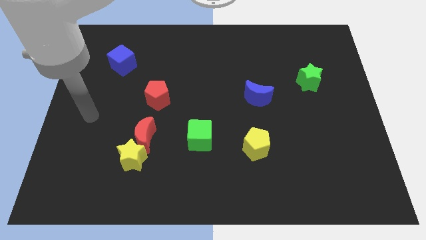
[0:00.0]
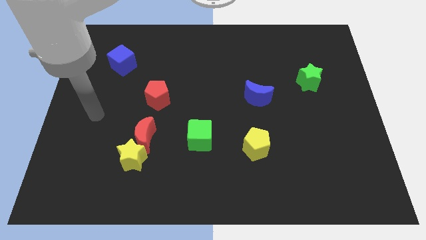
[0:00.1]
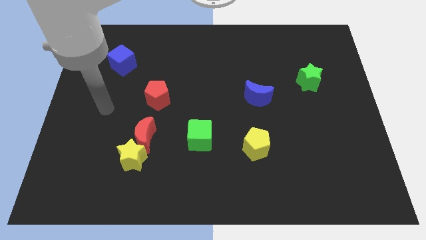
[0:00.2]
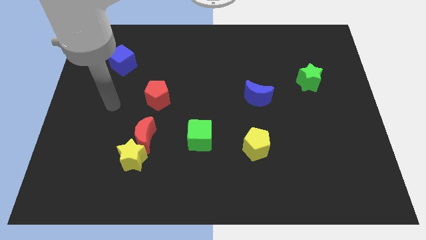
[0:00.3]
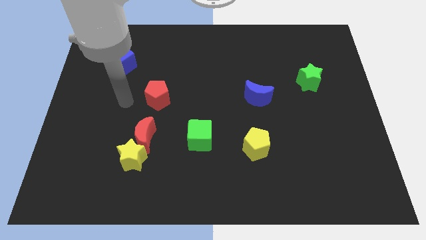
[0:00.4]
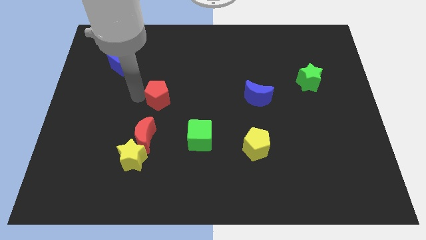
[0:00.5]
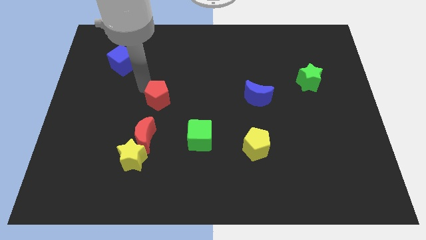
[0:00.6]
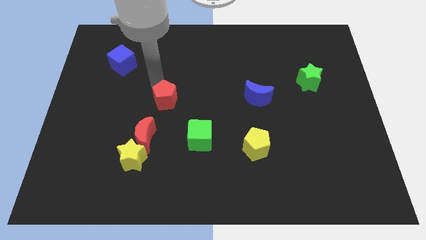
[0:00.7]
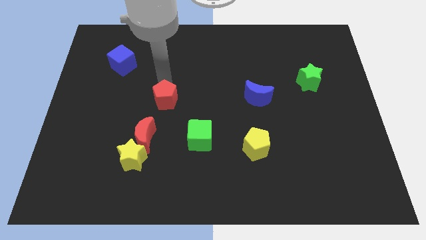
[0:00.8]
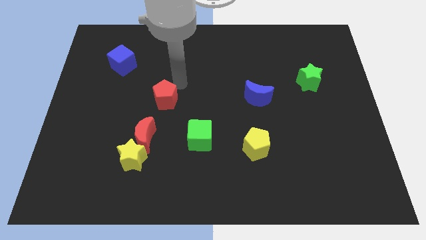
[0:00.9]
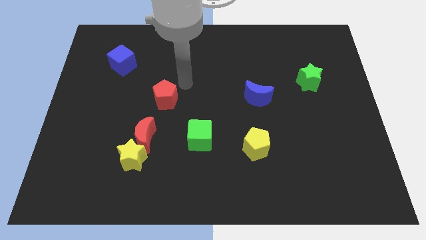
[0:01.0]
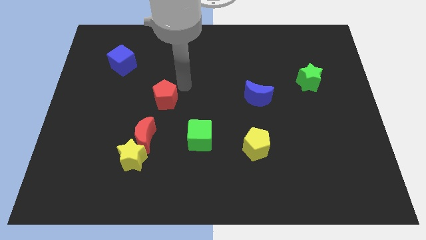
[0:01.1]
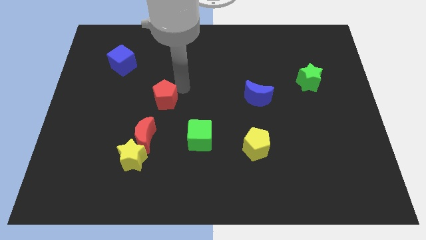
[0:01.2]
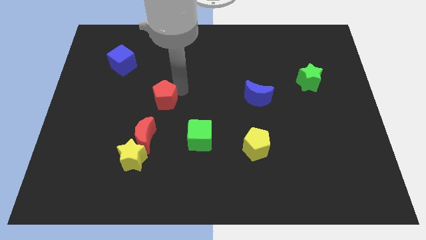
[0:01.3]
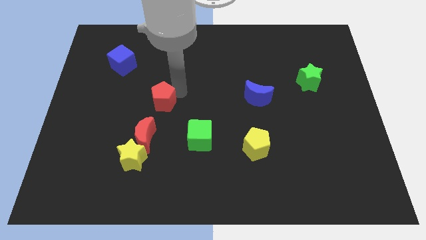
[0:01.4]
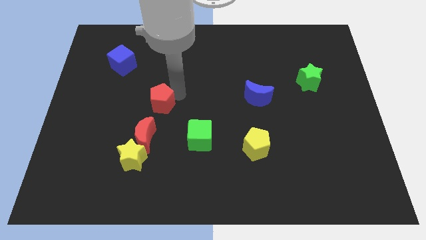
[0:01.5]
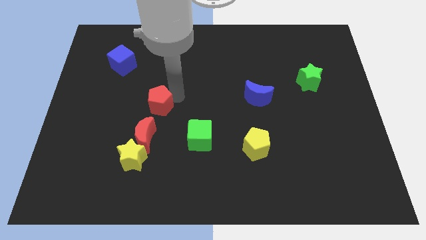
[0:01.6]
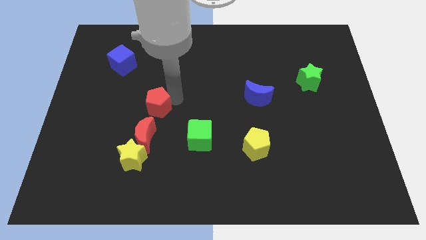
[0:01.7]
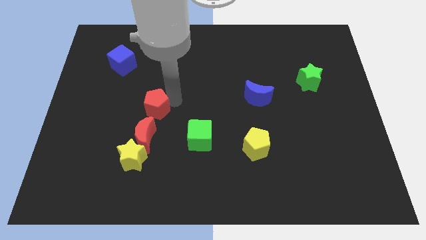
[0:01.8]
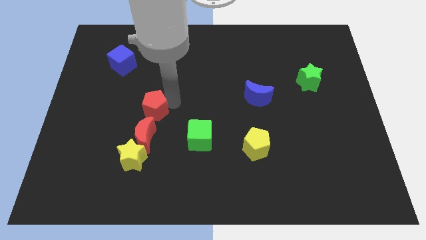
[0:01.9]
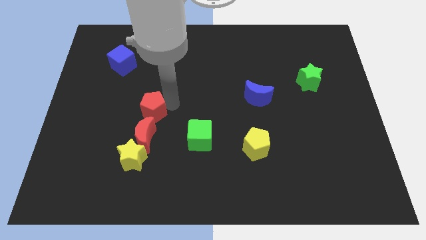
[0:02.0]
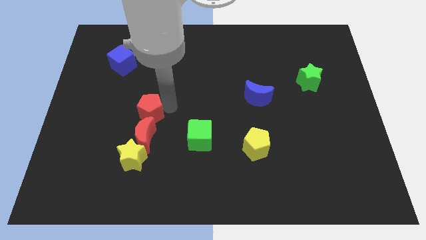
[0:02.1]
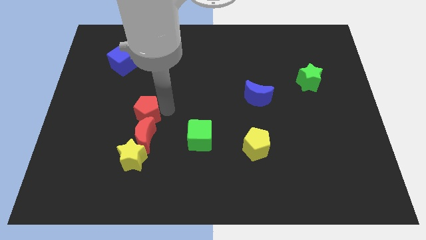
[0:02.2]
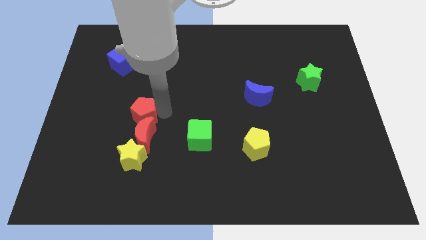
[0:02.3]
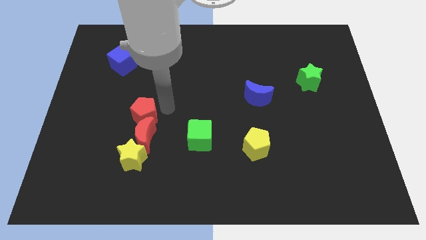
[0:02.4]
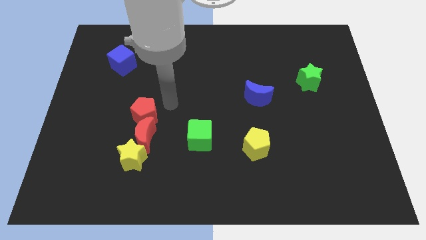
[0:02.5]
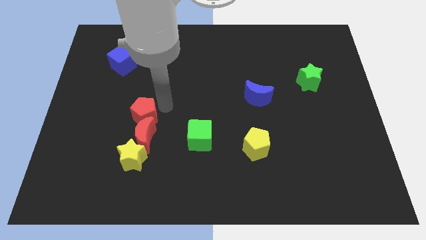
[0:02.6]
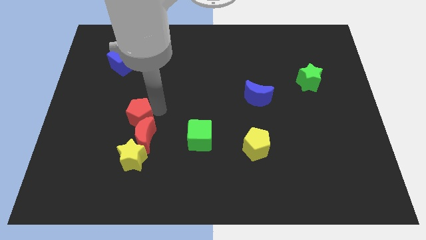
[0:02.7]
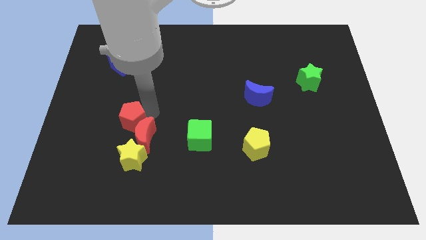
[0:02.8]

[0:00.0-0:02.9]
slightly move the red pentagon down and to the left diagonally

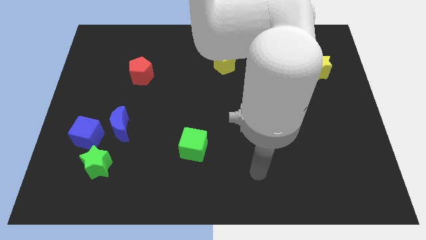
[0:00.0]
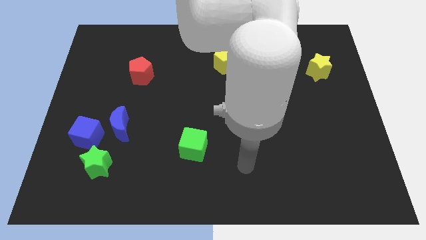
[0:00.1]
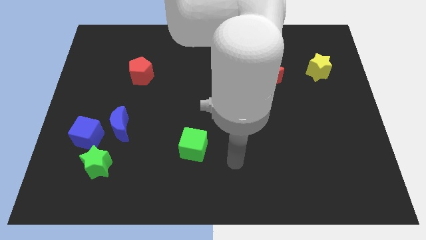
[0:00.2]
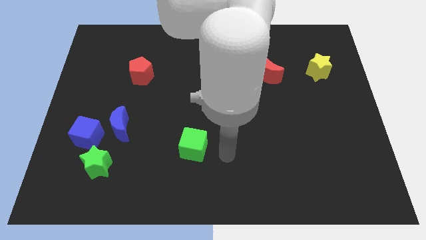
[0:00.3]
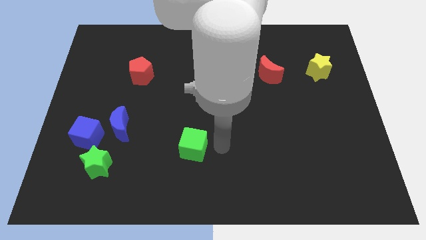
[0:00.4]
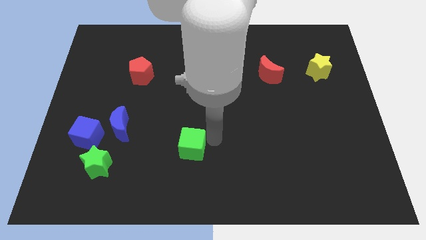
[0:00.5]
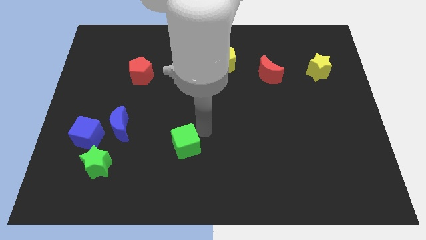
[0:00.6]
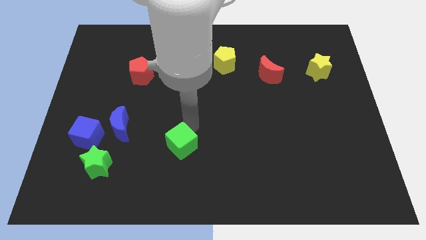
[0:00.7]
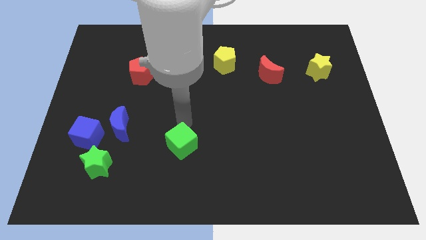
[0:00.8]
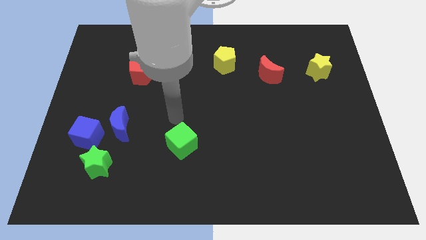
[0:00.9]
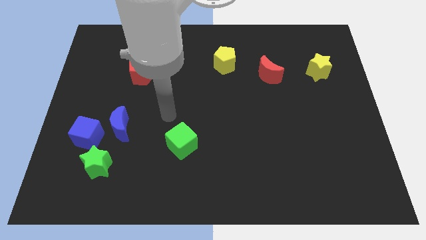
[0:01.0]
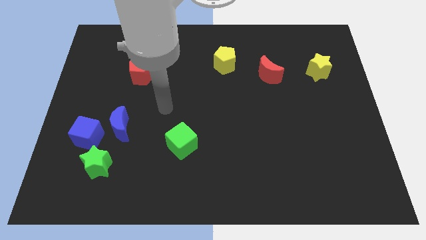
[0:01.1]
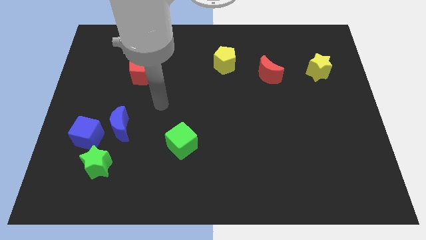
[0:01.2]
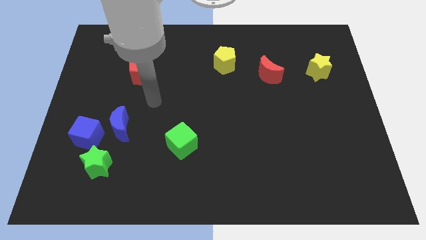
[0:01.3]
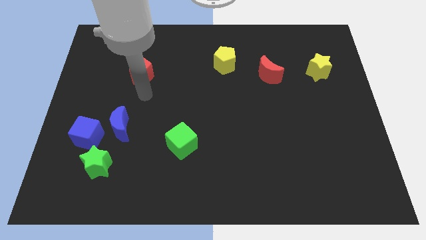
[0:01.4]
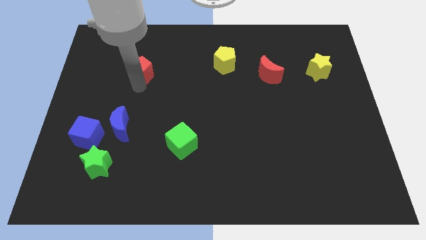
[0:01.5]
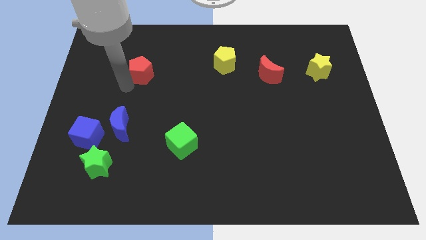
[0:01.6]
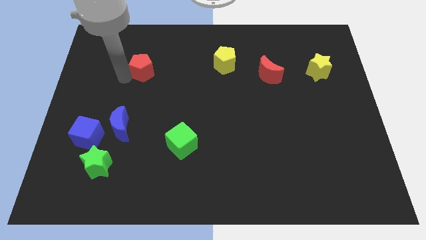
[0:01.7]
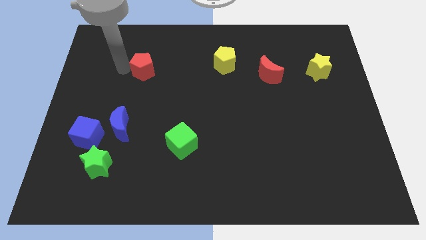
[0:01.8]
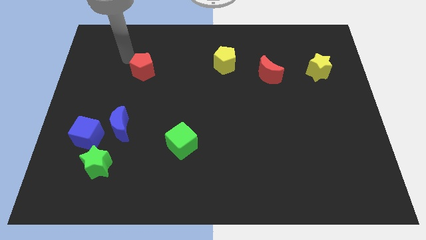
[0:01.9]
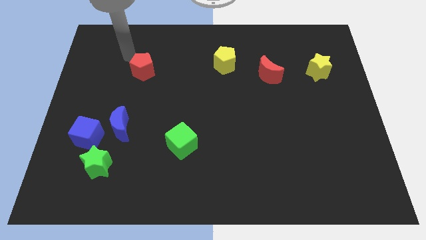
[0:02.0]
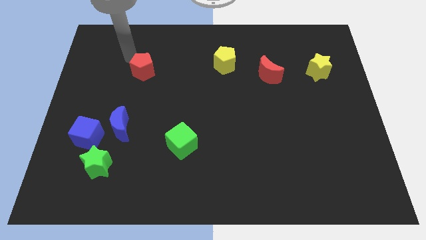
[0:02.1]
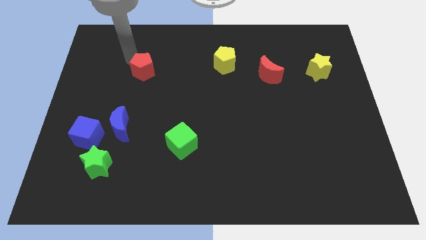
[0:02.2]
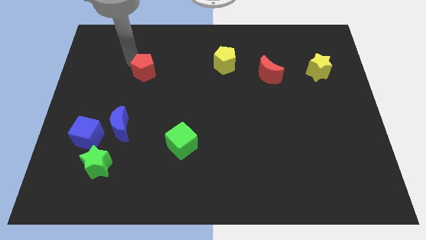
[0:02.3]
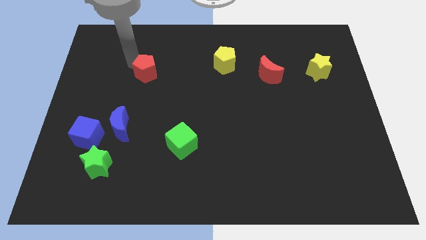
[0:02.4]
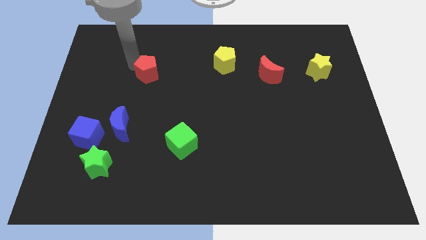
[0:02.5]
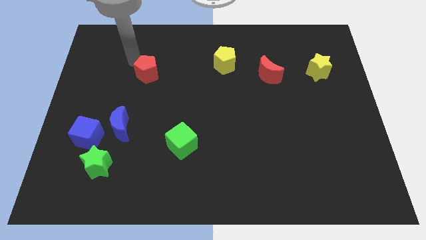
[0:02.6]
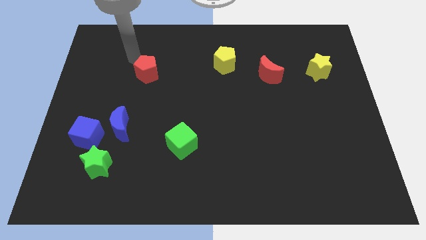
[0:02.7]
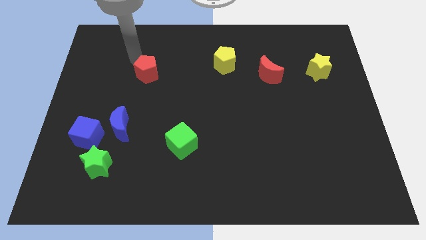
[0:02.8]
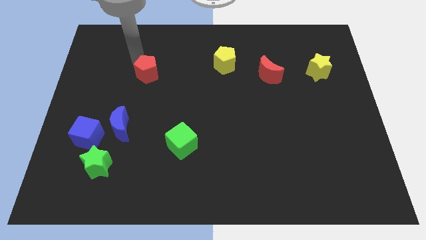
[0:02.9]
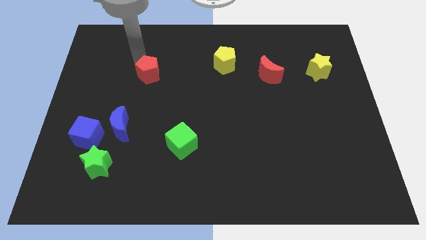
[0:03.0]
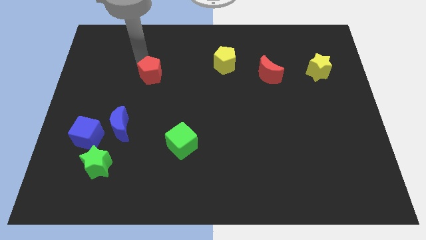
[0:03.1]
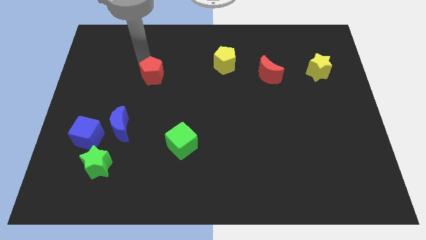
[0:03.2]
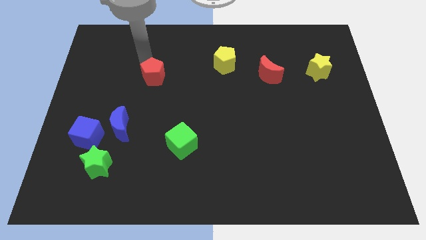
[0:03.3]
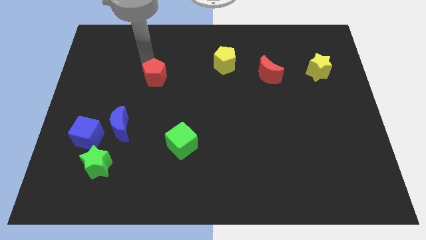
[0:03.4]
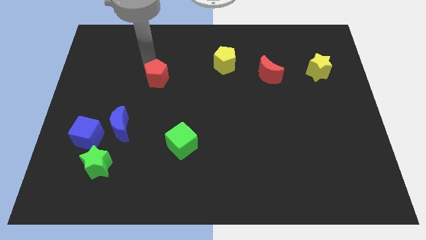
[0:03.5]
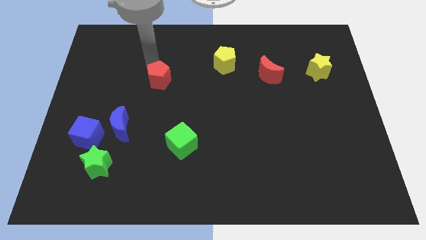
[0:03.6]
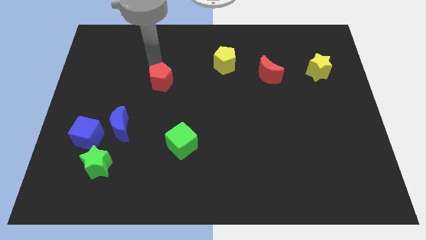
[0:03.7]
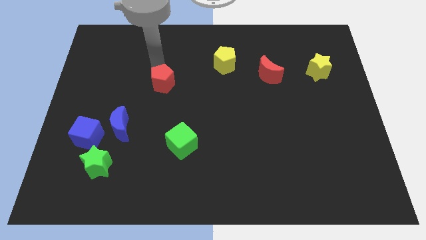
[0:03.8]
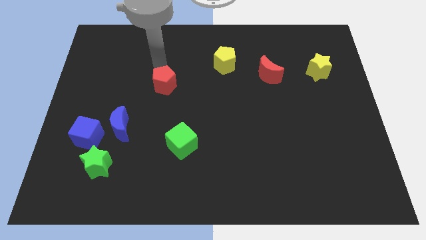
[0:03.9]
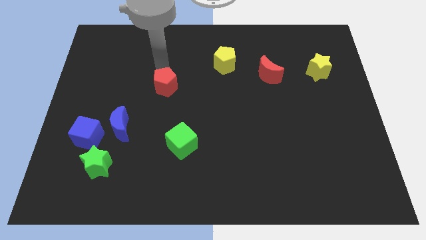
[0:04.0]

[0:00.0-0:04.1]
slide the red pentagon downwards and to the right somewhat

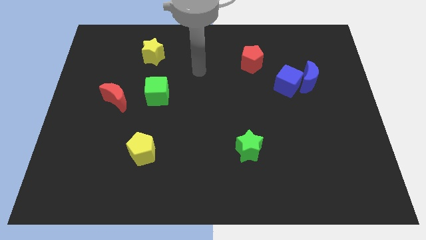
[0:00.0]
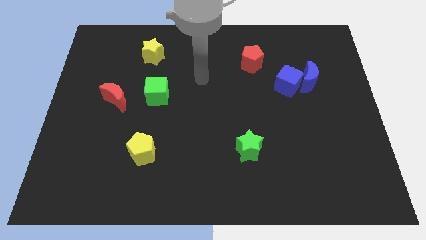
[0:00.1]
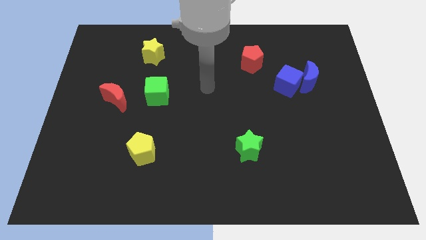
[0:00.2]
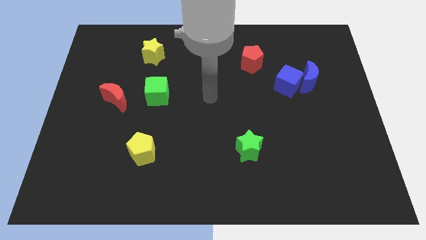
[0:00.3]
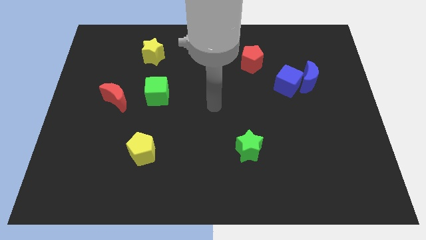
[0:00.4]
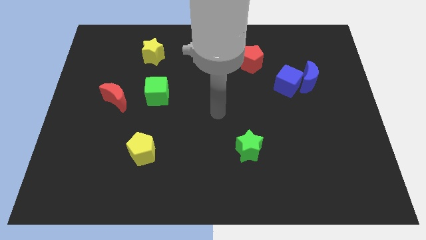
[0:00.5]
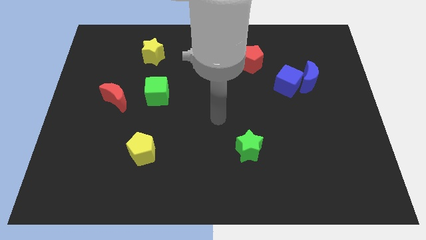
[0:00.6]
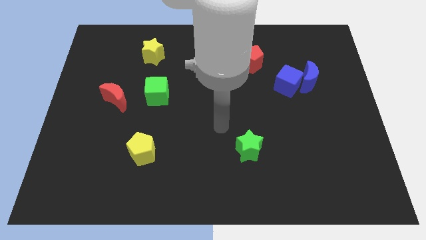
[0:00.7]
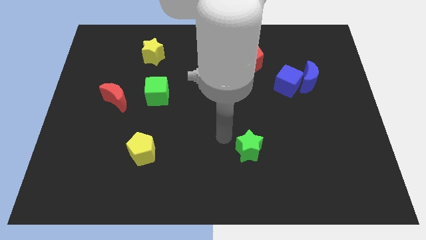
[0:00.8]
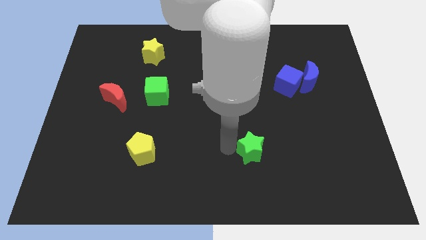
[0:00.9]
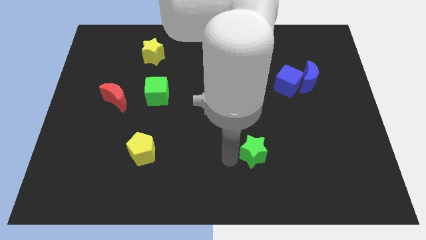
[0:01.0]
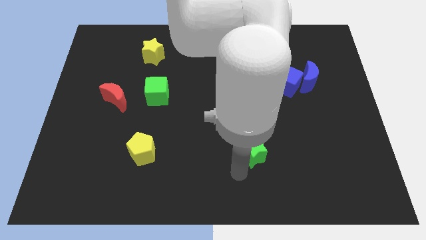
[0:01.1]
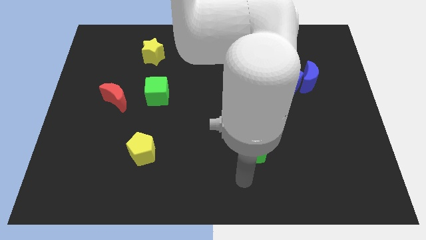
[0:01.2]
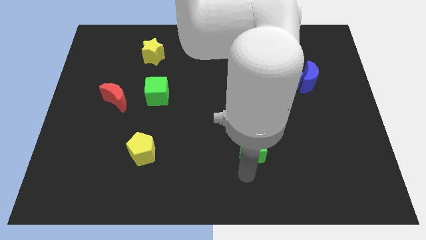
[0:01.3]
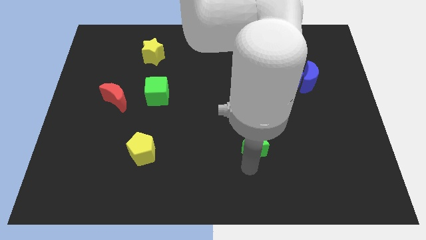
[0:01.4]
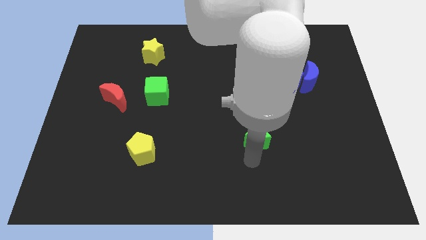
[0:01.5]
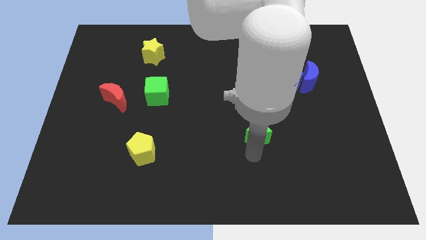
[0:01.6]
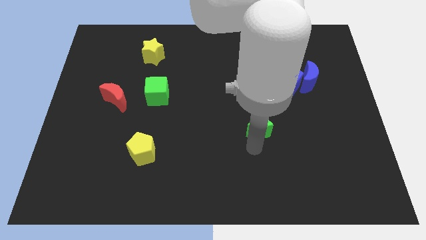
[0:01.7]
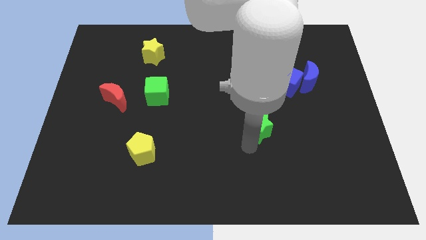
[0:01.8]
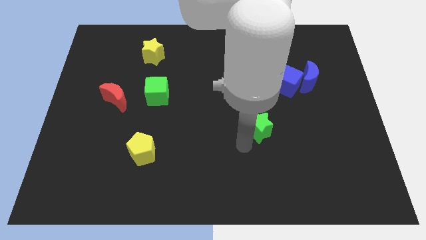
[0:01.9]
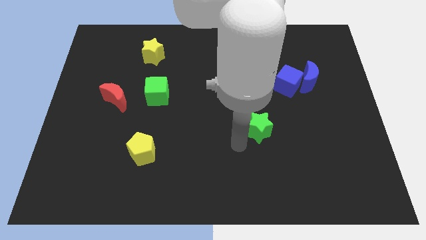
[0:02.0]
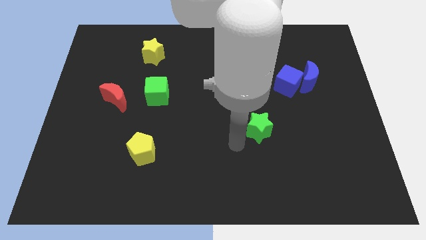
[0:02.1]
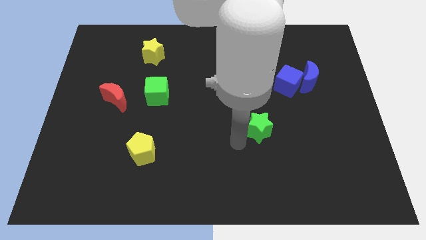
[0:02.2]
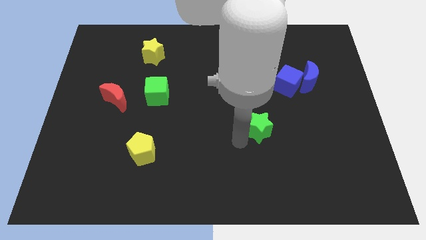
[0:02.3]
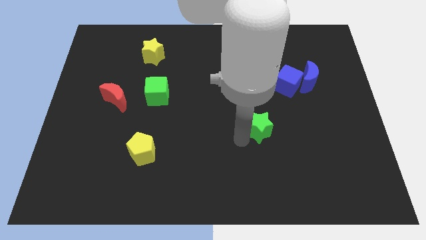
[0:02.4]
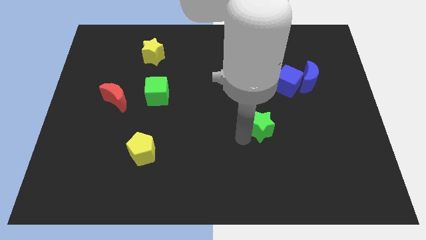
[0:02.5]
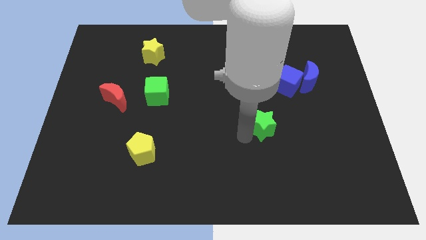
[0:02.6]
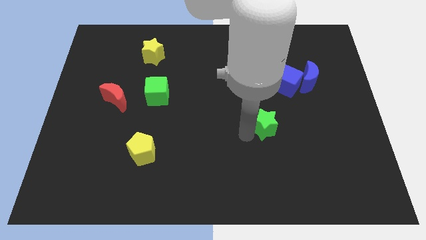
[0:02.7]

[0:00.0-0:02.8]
move the green star upwards and then right slightly
